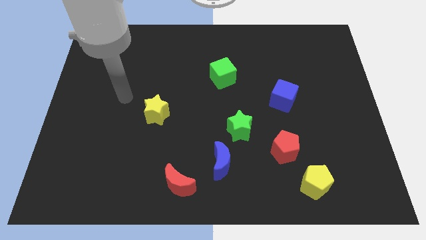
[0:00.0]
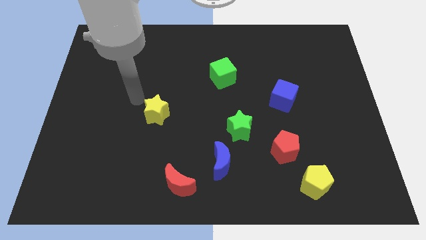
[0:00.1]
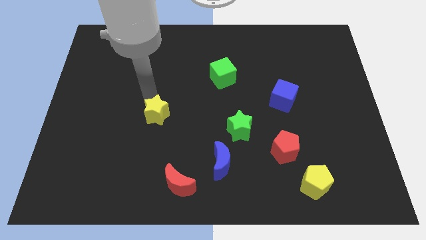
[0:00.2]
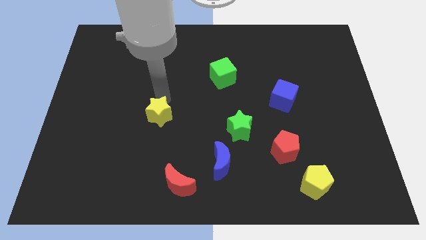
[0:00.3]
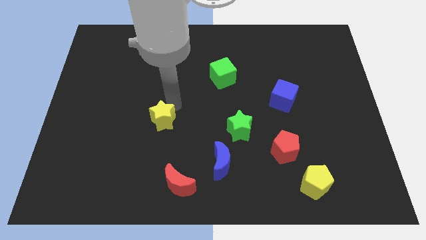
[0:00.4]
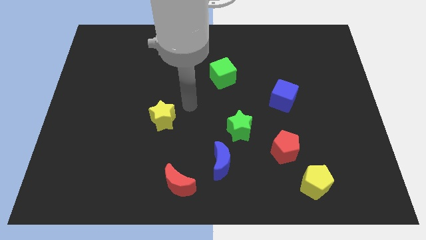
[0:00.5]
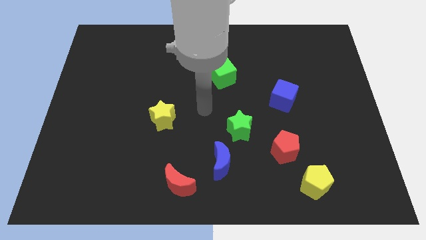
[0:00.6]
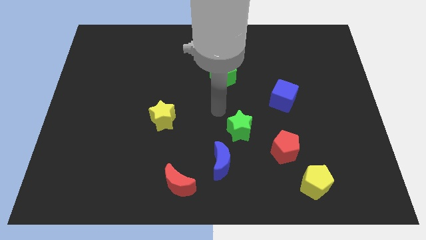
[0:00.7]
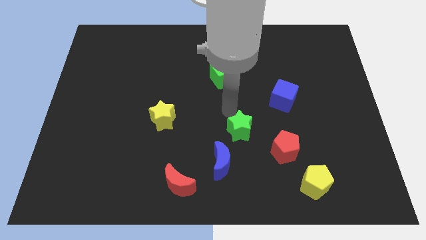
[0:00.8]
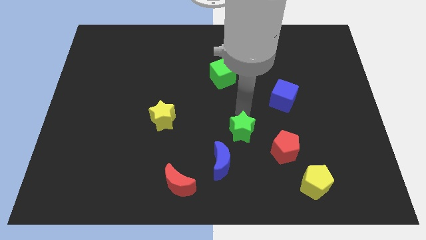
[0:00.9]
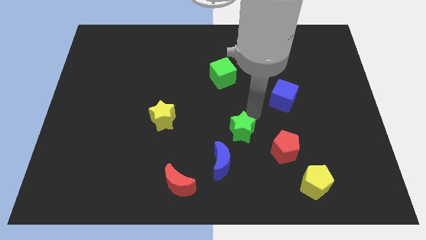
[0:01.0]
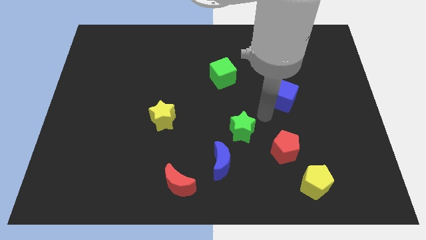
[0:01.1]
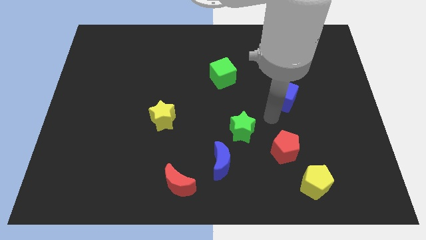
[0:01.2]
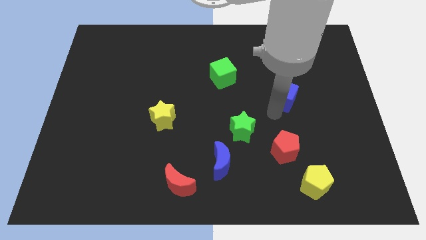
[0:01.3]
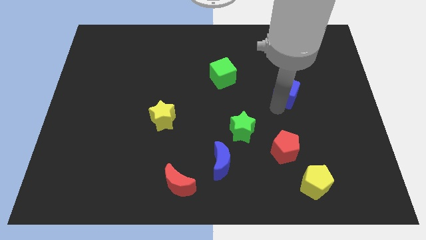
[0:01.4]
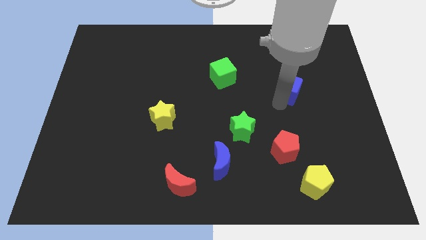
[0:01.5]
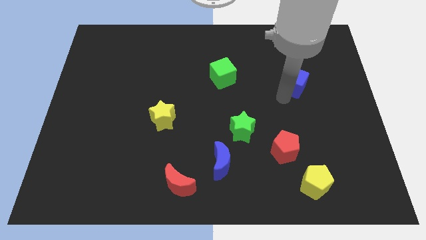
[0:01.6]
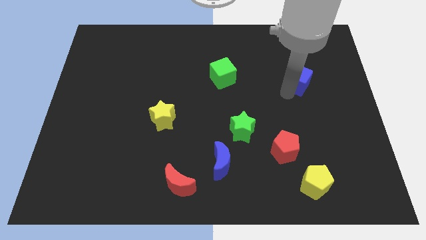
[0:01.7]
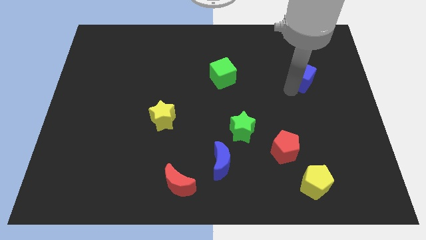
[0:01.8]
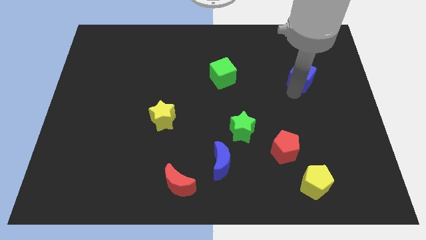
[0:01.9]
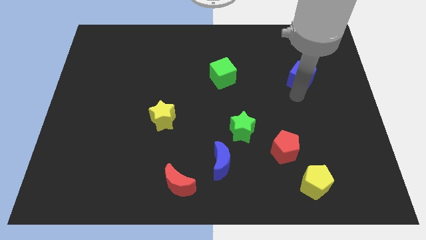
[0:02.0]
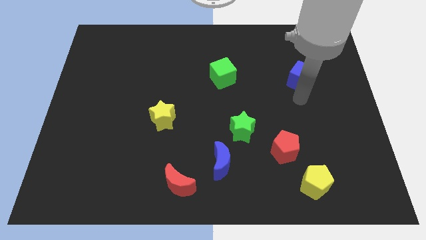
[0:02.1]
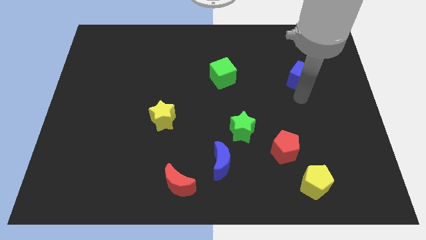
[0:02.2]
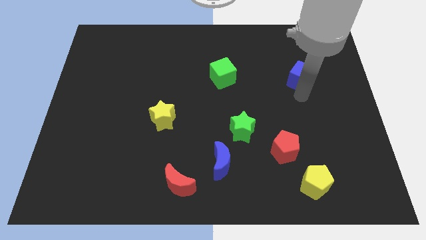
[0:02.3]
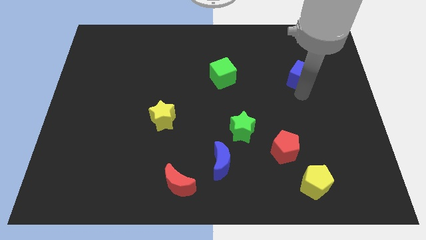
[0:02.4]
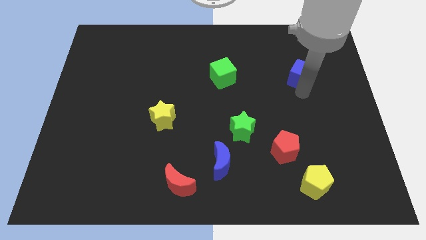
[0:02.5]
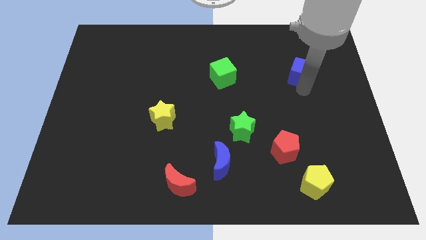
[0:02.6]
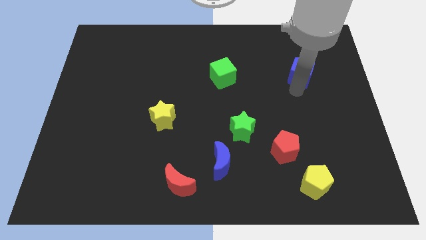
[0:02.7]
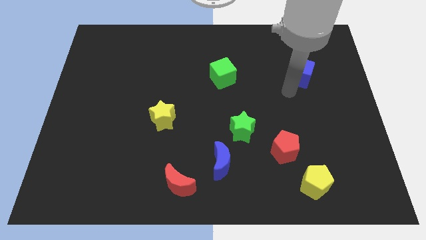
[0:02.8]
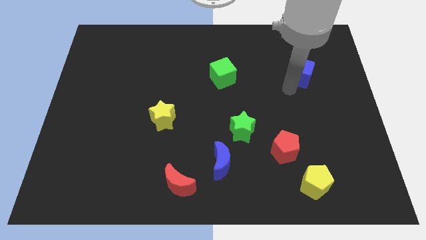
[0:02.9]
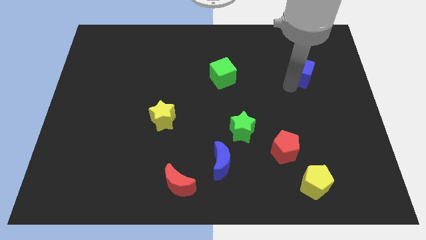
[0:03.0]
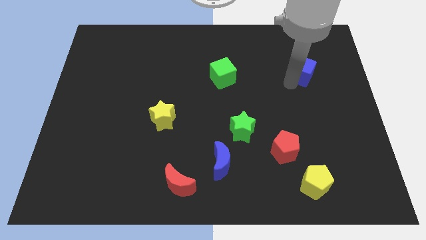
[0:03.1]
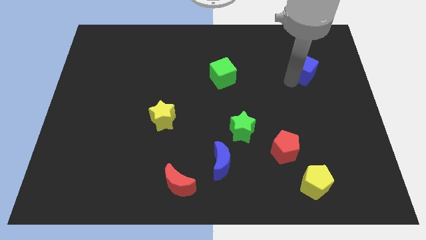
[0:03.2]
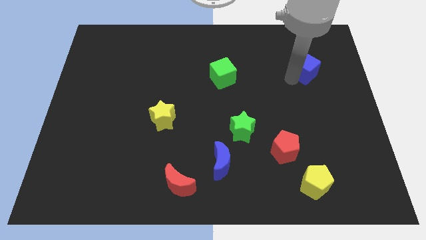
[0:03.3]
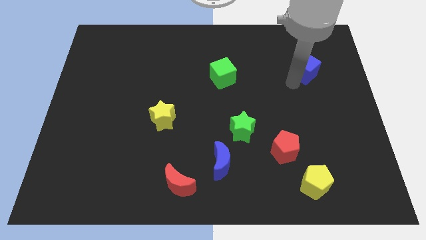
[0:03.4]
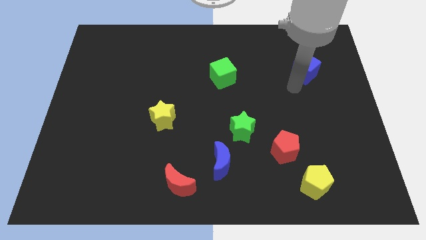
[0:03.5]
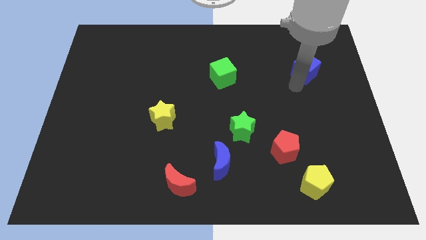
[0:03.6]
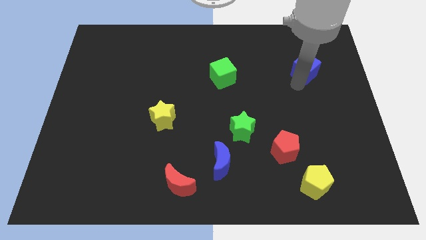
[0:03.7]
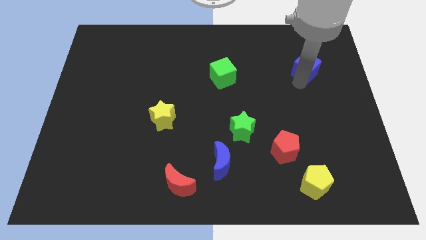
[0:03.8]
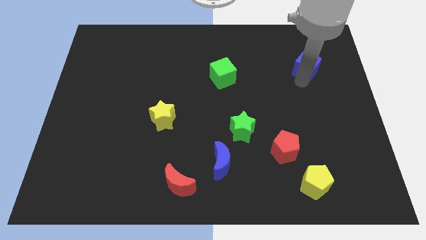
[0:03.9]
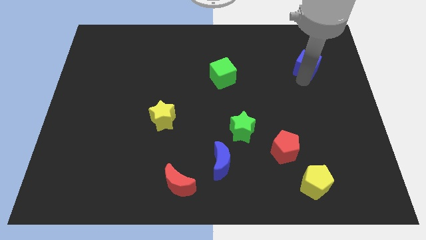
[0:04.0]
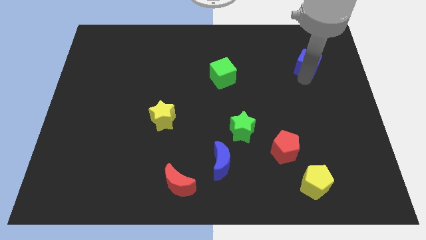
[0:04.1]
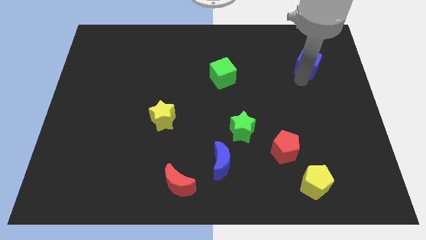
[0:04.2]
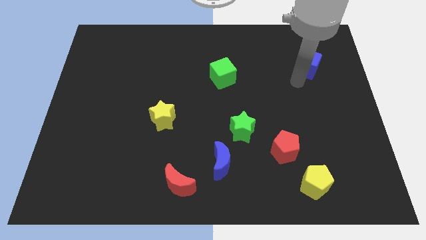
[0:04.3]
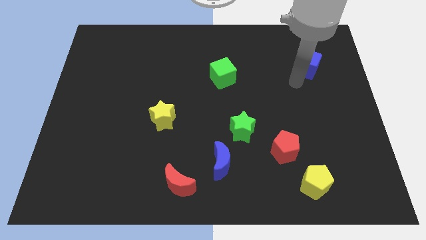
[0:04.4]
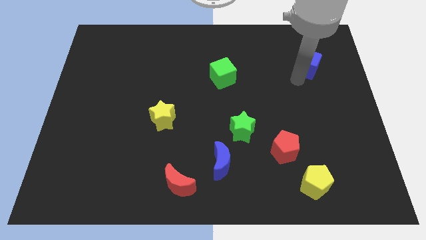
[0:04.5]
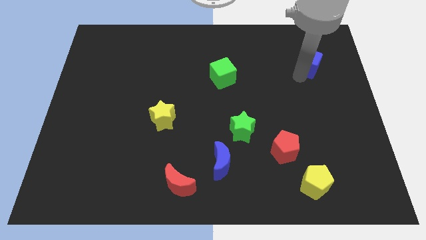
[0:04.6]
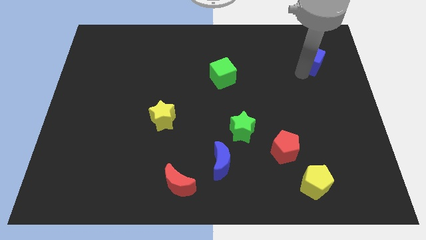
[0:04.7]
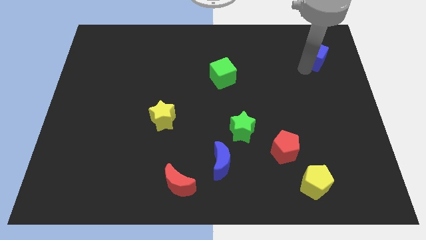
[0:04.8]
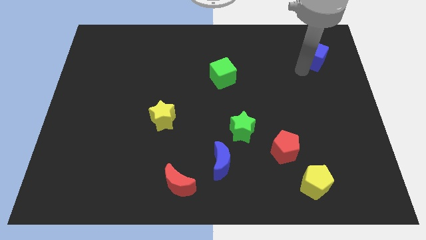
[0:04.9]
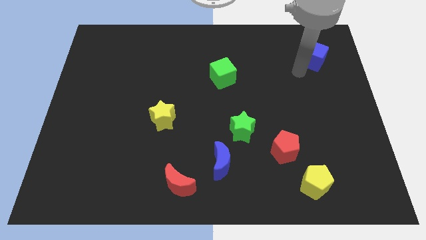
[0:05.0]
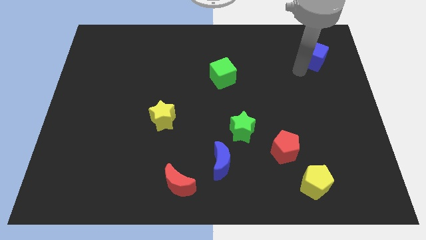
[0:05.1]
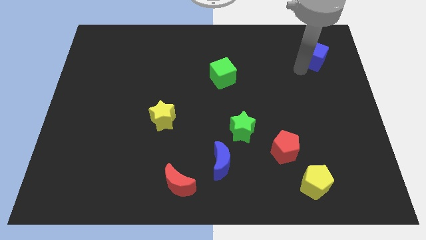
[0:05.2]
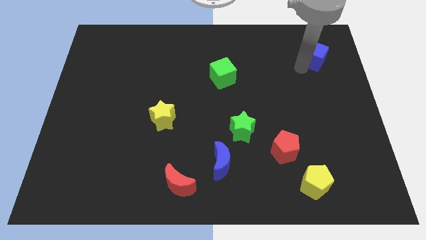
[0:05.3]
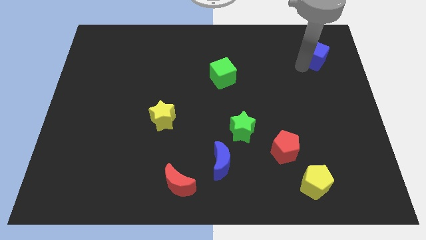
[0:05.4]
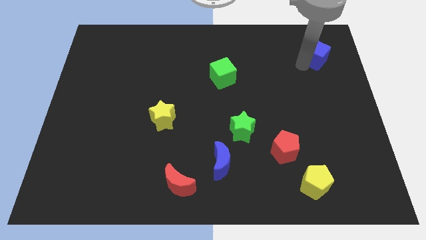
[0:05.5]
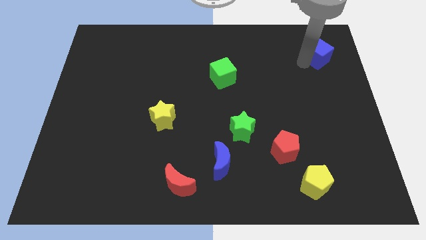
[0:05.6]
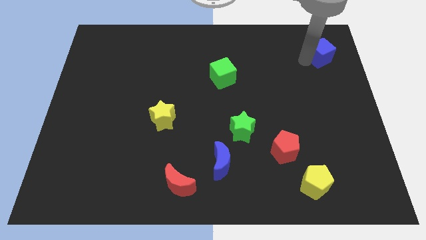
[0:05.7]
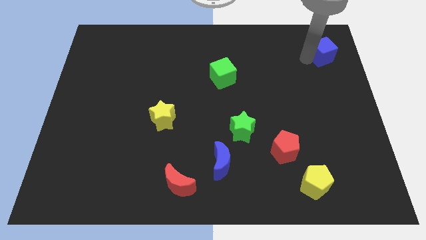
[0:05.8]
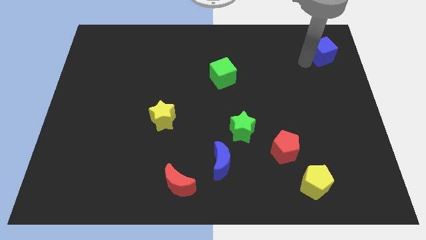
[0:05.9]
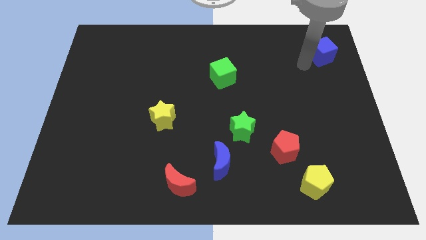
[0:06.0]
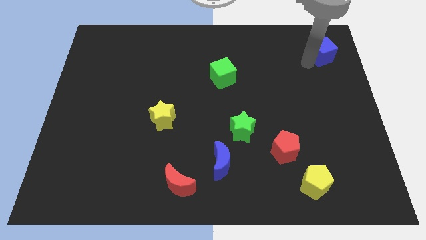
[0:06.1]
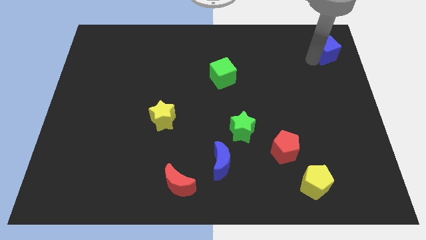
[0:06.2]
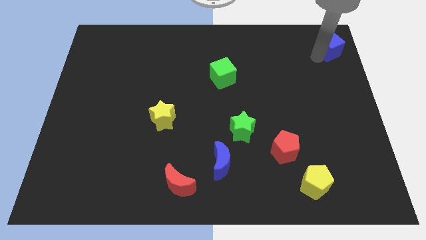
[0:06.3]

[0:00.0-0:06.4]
move the blue cube to the top right

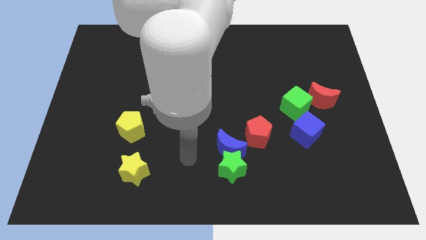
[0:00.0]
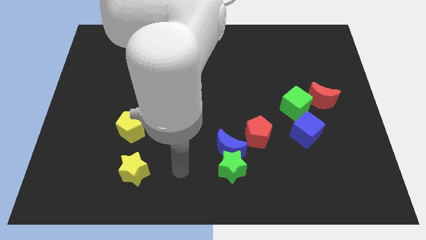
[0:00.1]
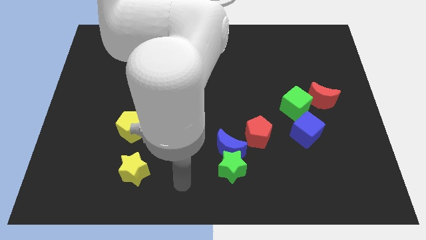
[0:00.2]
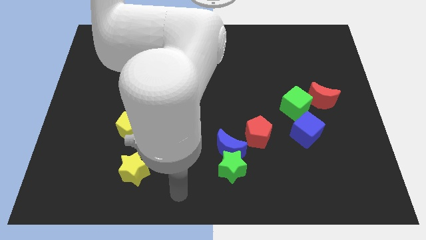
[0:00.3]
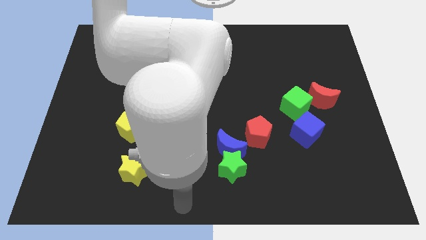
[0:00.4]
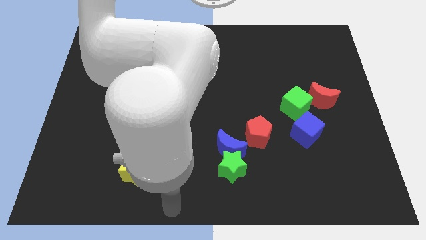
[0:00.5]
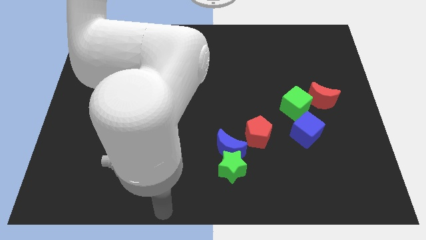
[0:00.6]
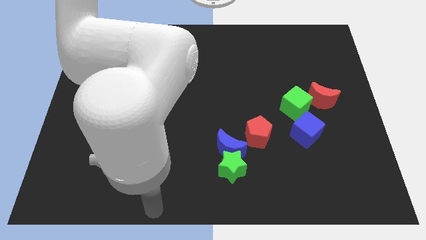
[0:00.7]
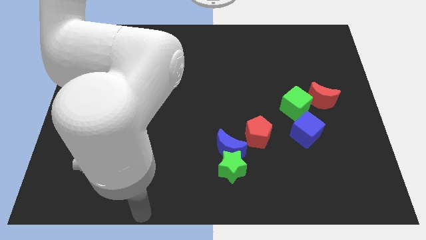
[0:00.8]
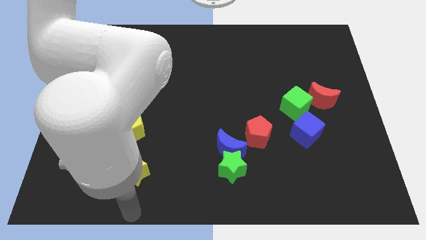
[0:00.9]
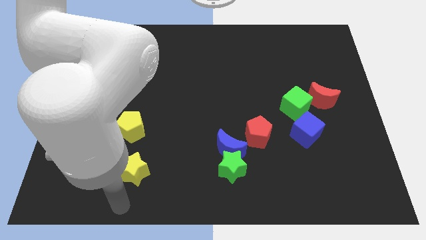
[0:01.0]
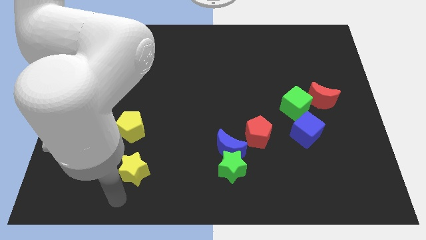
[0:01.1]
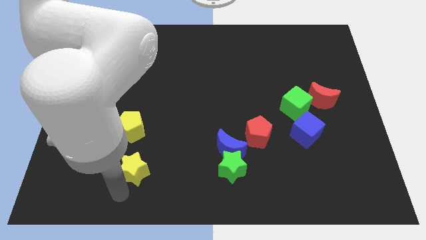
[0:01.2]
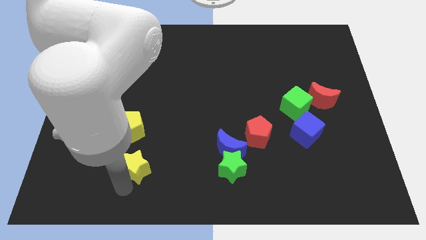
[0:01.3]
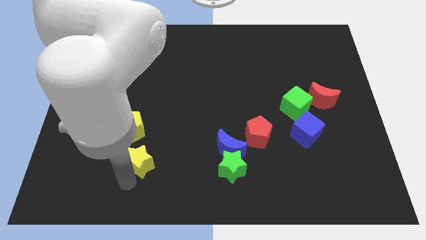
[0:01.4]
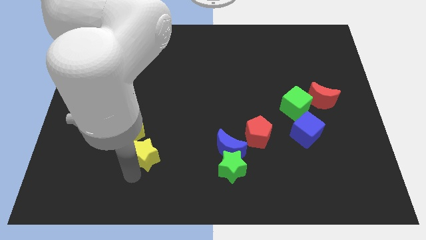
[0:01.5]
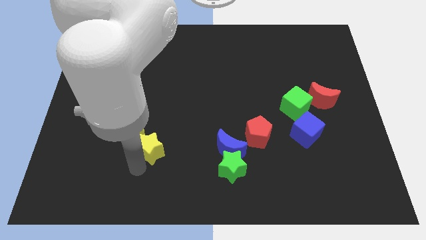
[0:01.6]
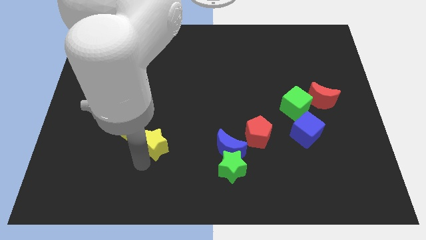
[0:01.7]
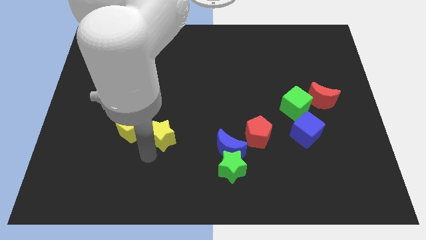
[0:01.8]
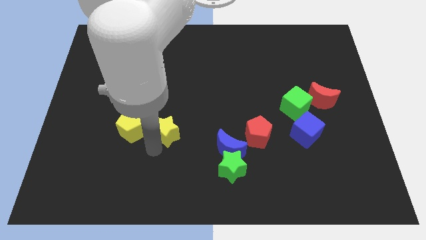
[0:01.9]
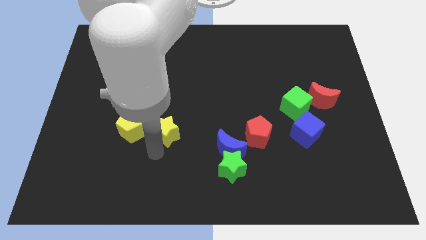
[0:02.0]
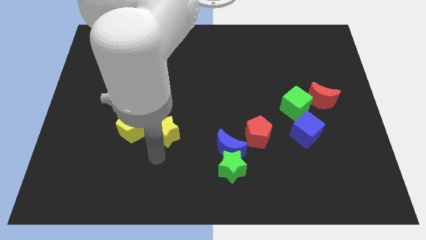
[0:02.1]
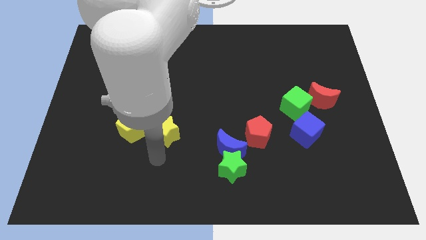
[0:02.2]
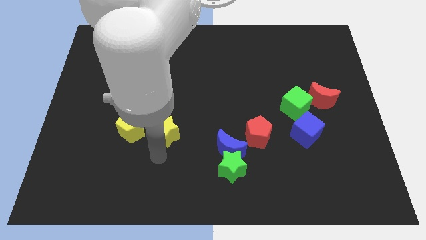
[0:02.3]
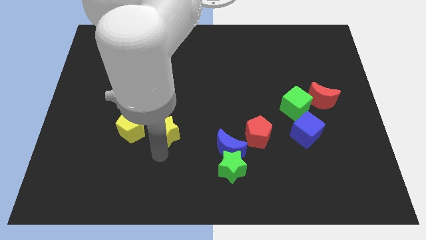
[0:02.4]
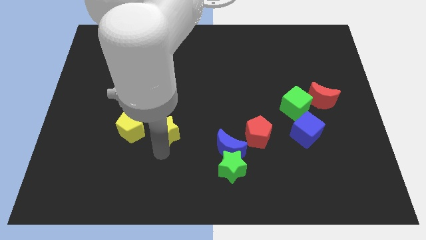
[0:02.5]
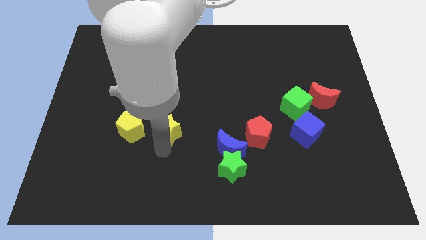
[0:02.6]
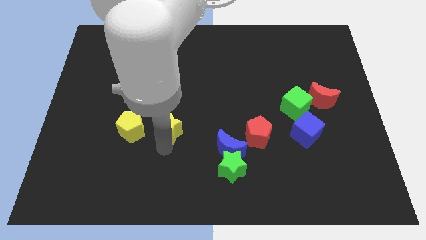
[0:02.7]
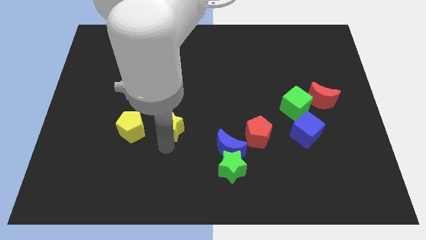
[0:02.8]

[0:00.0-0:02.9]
slide the yellow star to the middle
